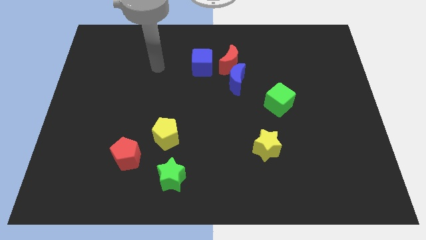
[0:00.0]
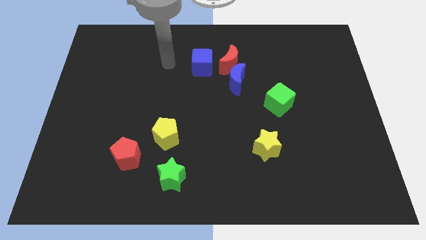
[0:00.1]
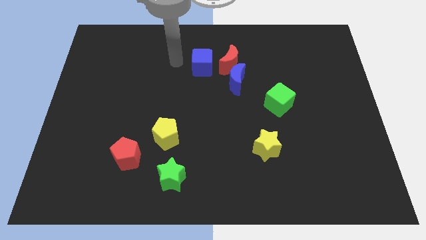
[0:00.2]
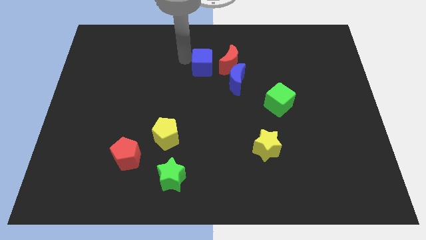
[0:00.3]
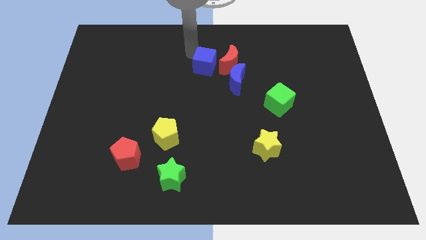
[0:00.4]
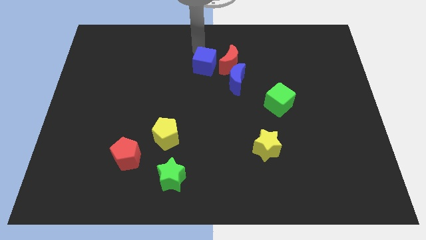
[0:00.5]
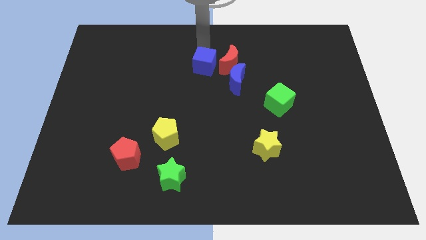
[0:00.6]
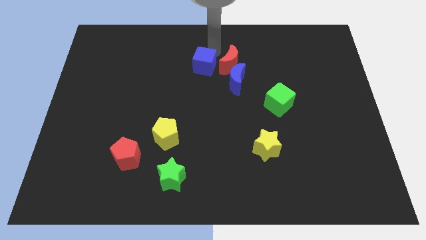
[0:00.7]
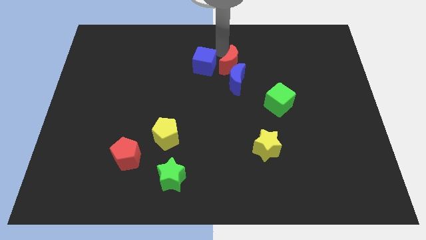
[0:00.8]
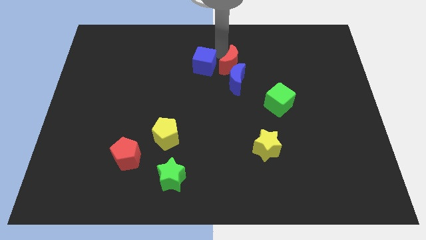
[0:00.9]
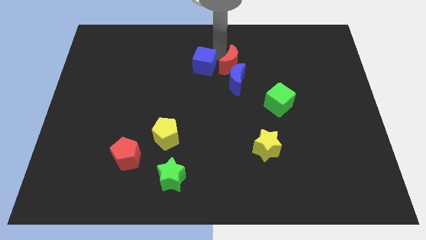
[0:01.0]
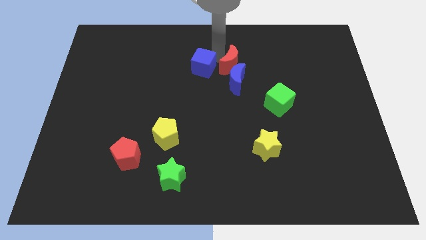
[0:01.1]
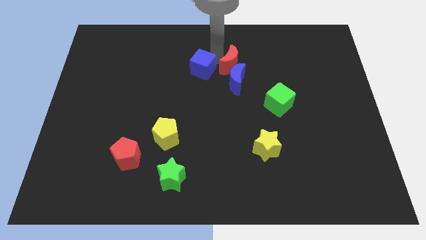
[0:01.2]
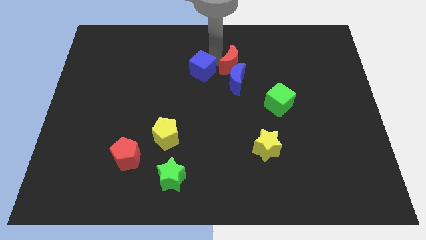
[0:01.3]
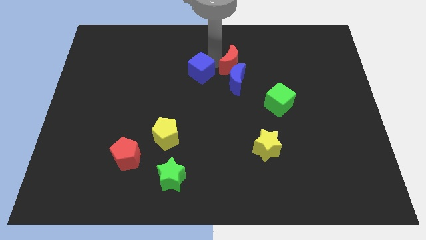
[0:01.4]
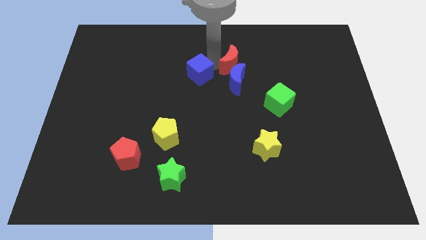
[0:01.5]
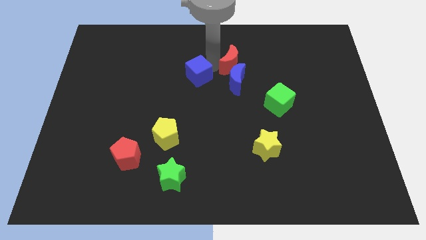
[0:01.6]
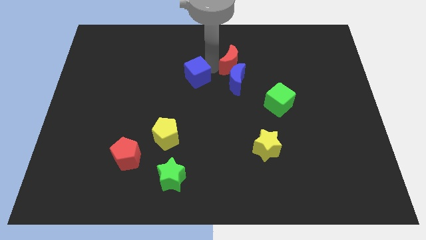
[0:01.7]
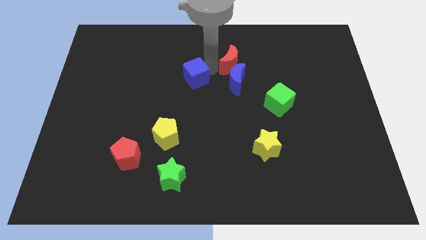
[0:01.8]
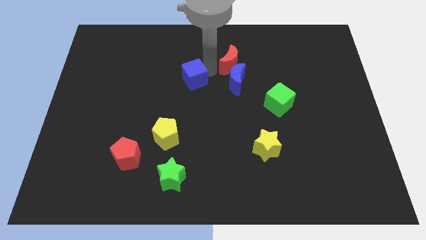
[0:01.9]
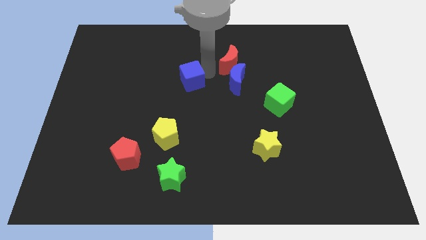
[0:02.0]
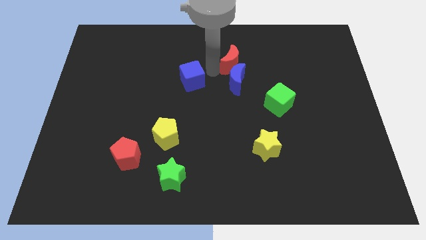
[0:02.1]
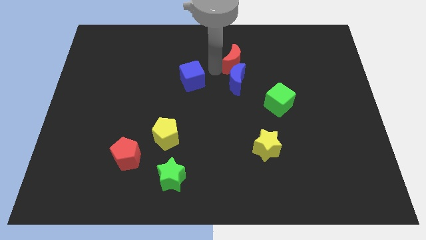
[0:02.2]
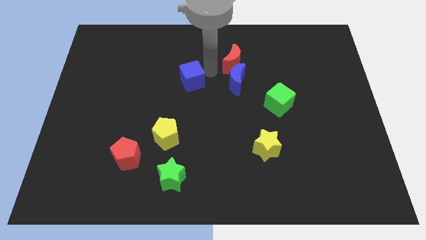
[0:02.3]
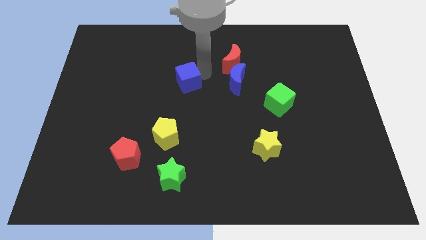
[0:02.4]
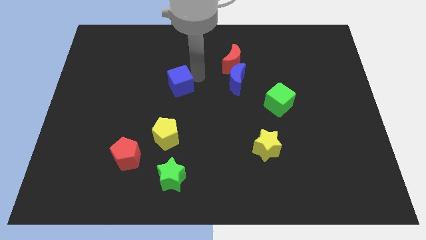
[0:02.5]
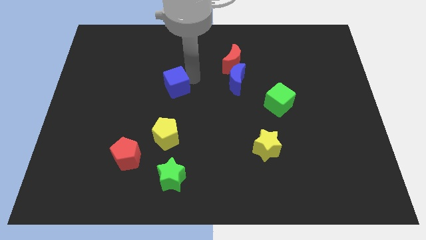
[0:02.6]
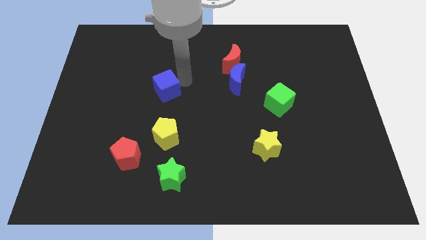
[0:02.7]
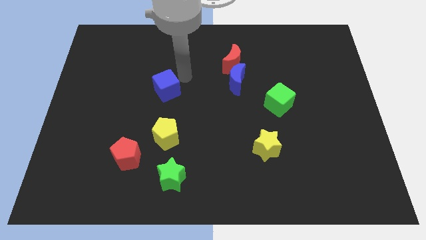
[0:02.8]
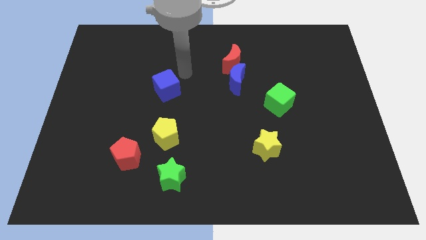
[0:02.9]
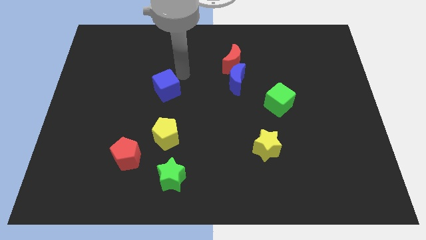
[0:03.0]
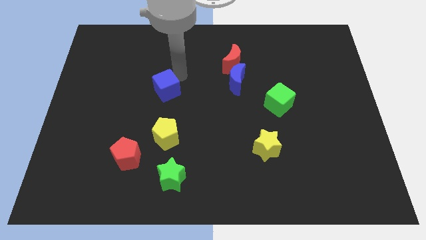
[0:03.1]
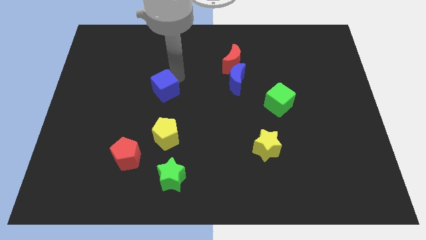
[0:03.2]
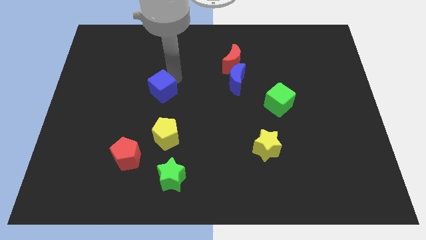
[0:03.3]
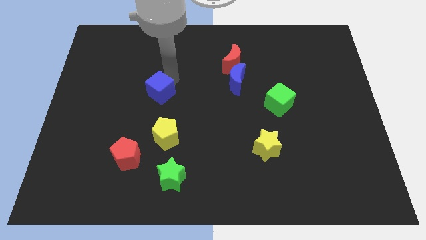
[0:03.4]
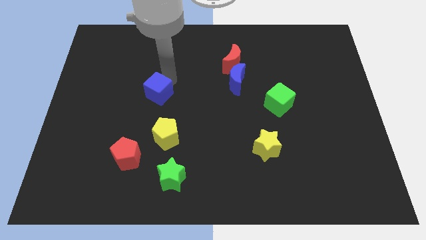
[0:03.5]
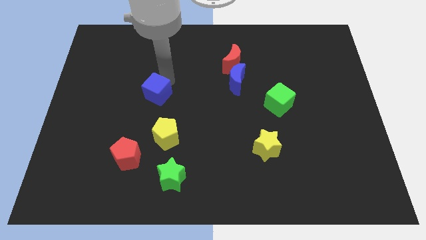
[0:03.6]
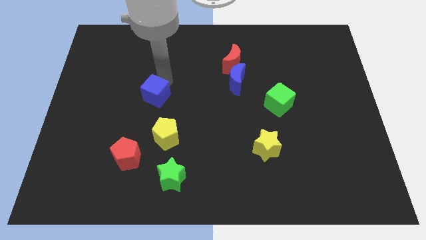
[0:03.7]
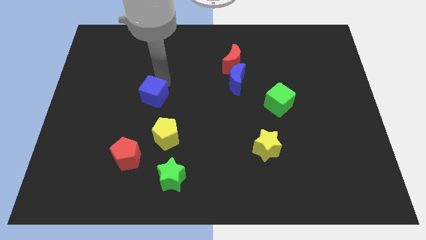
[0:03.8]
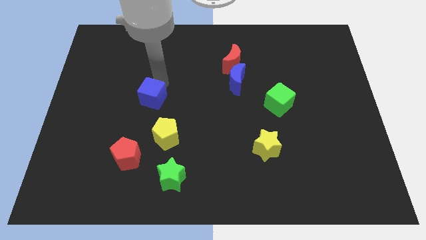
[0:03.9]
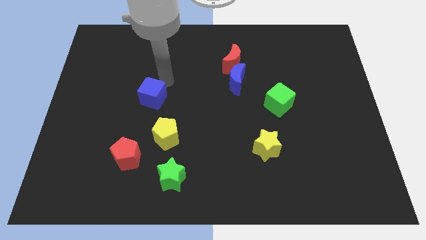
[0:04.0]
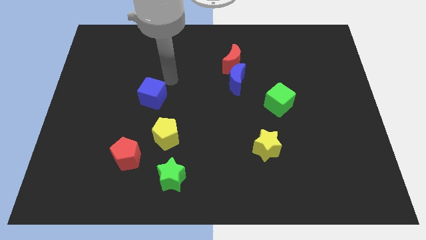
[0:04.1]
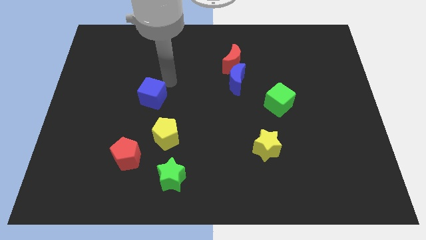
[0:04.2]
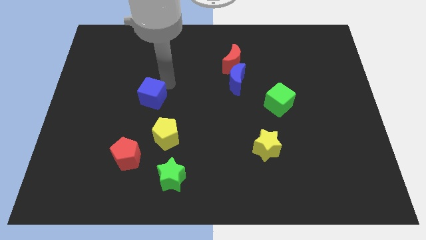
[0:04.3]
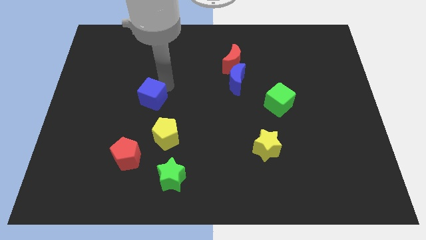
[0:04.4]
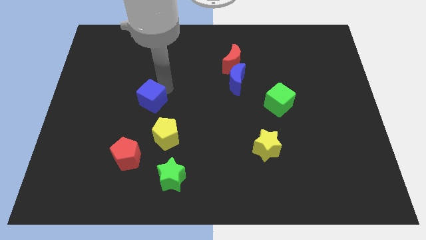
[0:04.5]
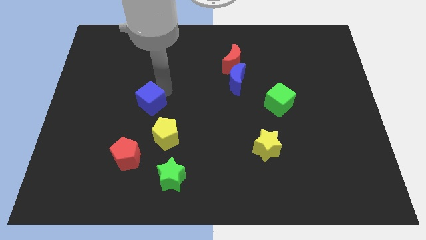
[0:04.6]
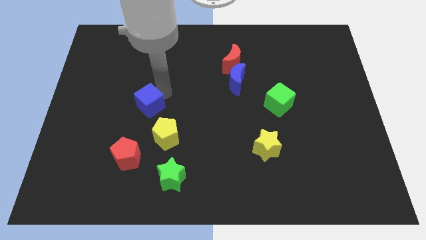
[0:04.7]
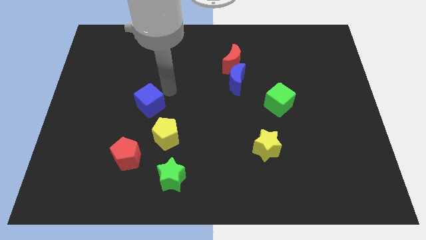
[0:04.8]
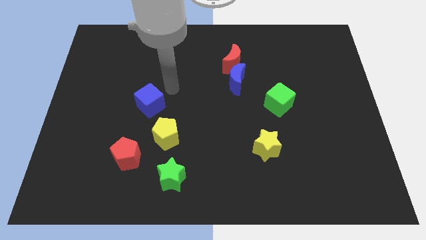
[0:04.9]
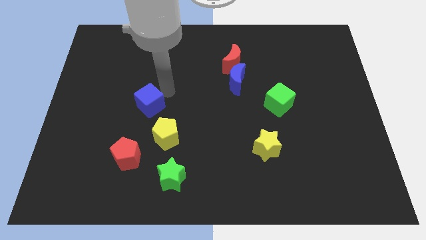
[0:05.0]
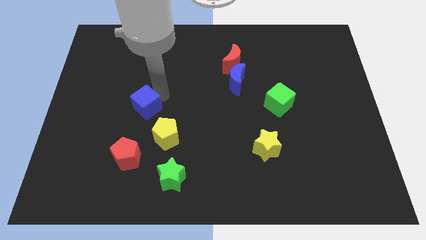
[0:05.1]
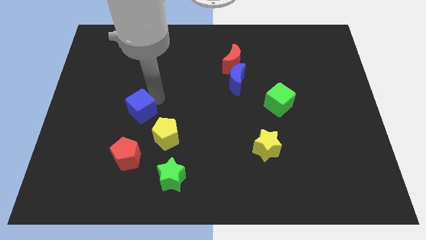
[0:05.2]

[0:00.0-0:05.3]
move the blue cube downwards and left

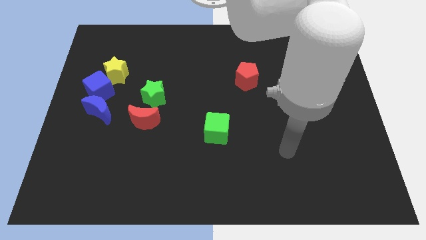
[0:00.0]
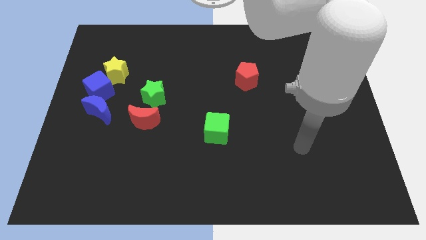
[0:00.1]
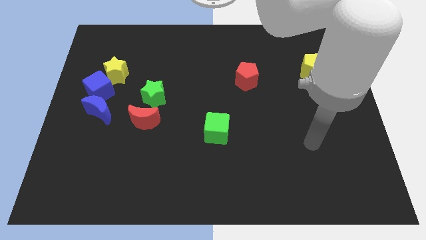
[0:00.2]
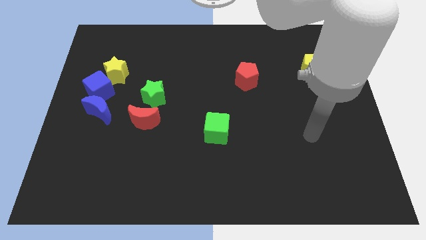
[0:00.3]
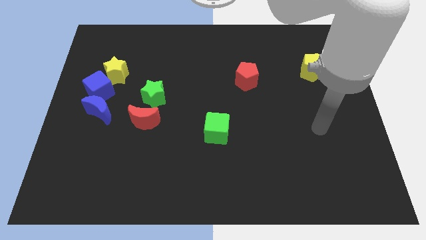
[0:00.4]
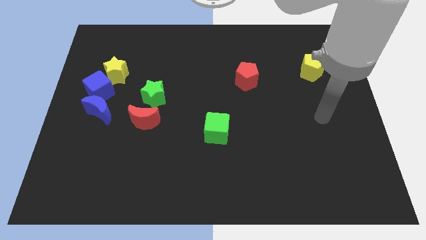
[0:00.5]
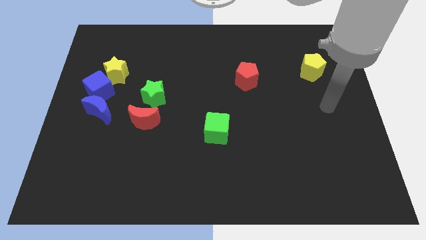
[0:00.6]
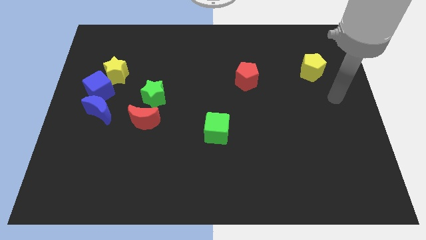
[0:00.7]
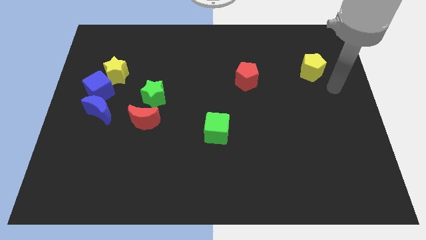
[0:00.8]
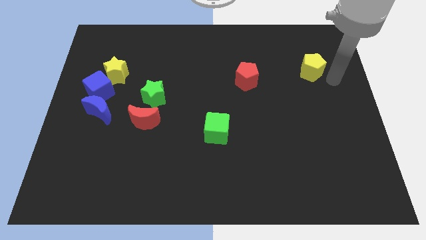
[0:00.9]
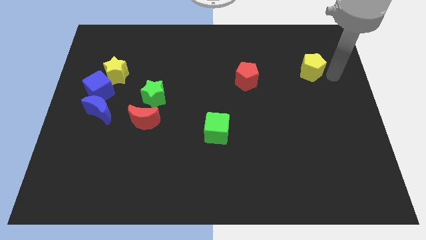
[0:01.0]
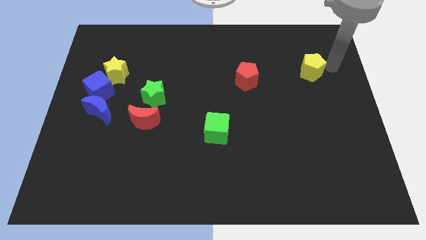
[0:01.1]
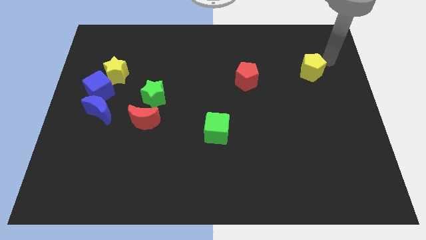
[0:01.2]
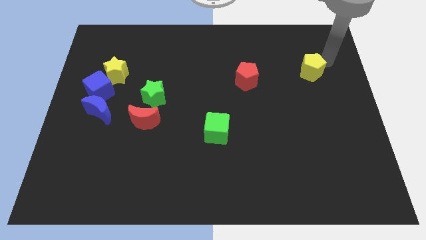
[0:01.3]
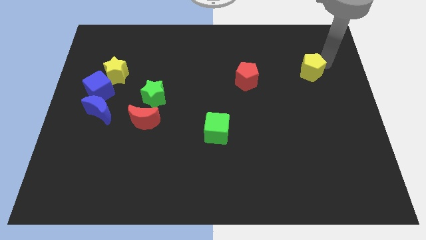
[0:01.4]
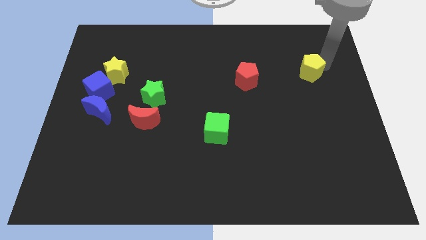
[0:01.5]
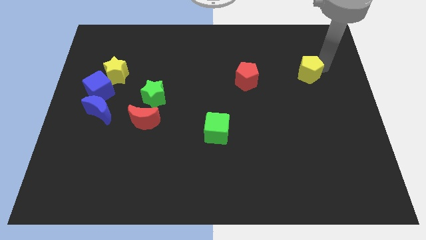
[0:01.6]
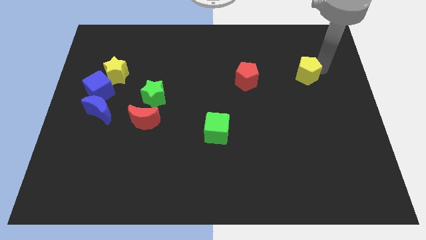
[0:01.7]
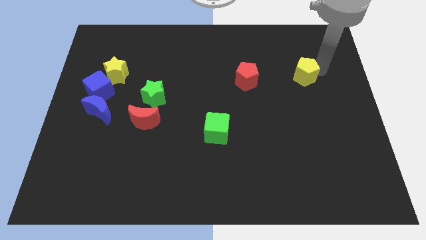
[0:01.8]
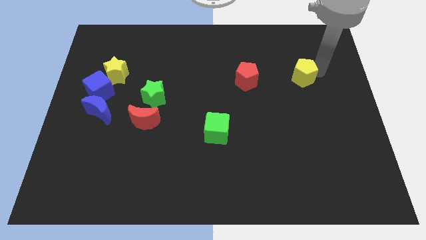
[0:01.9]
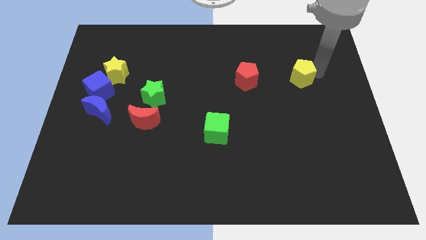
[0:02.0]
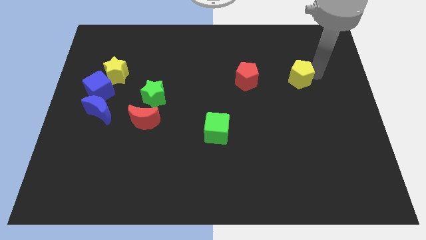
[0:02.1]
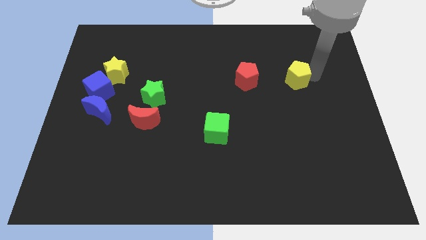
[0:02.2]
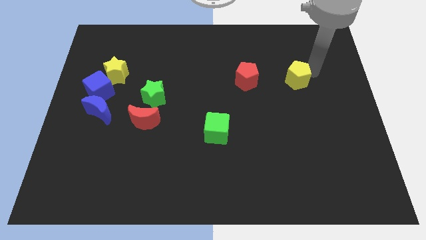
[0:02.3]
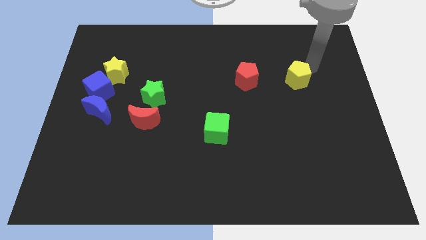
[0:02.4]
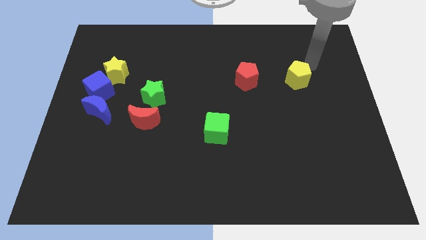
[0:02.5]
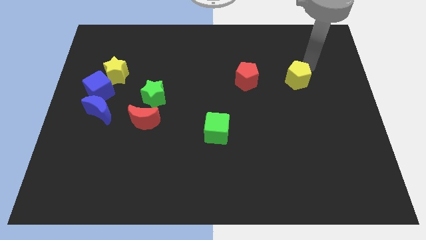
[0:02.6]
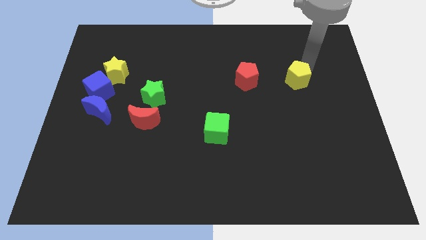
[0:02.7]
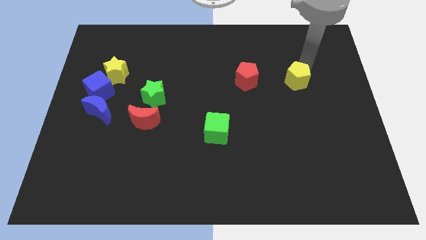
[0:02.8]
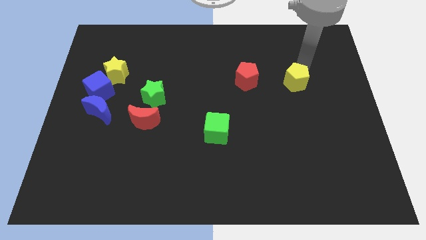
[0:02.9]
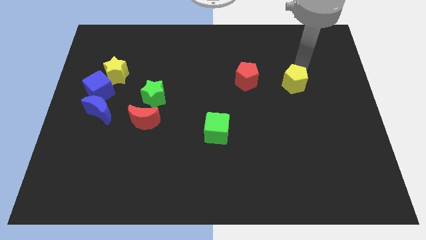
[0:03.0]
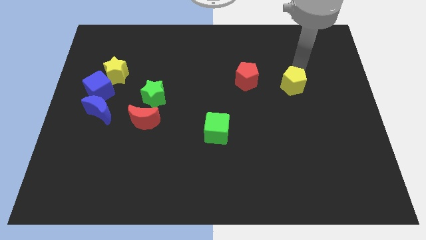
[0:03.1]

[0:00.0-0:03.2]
slide the yellow pentagon downwards and then to the left slightly
